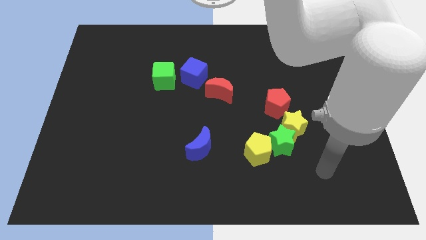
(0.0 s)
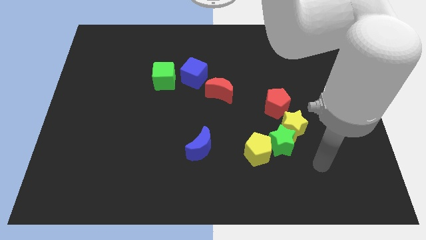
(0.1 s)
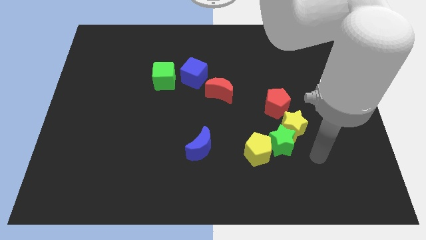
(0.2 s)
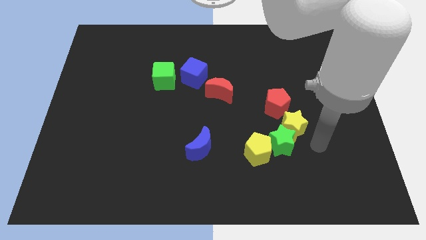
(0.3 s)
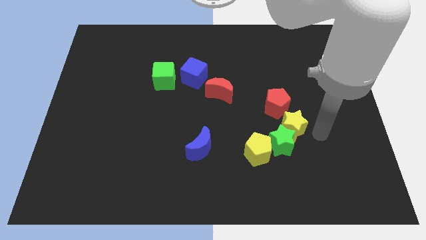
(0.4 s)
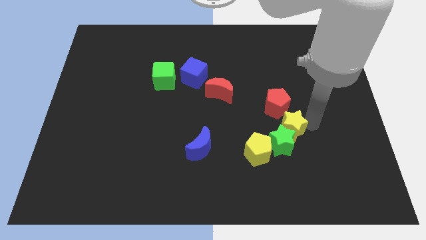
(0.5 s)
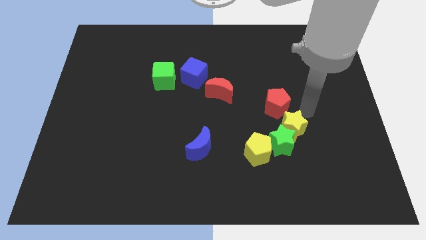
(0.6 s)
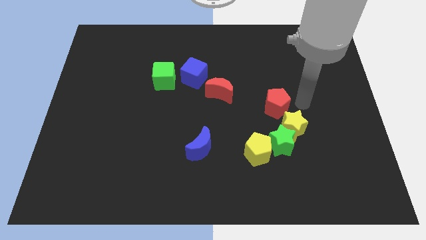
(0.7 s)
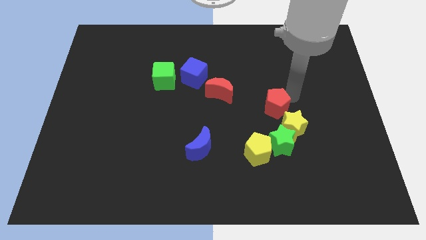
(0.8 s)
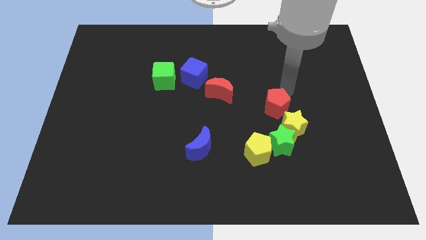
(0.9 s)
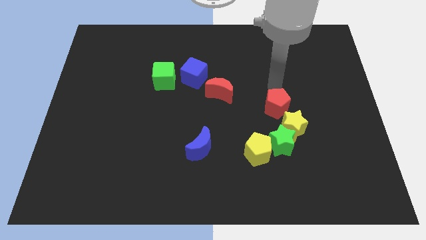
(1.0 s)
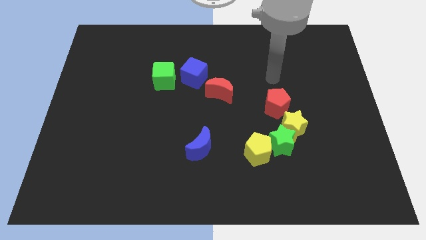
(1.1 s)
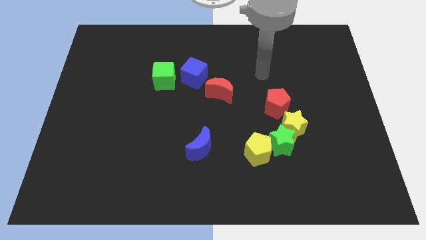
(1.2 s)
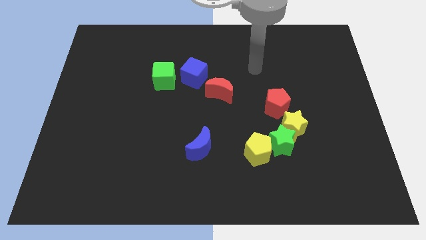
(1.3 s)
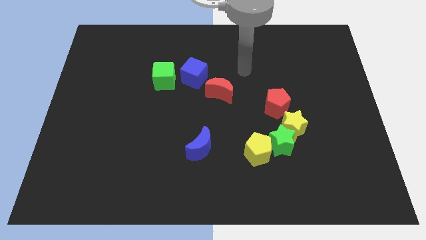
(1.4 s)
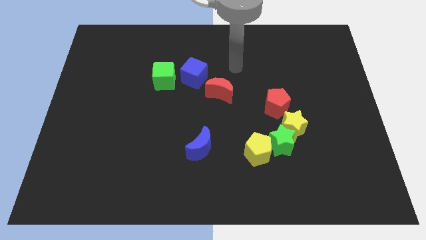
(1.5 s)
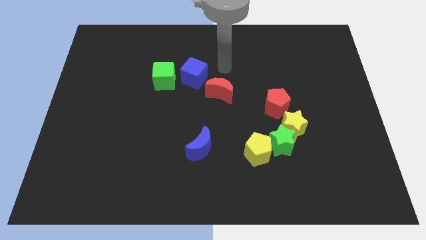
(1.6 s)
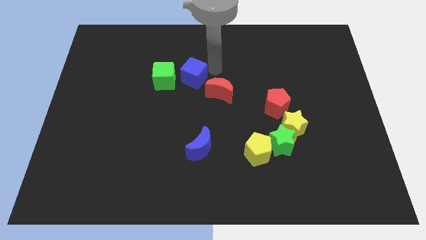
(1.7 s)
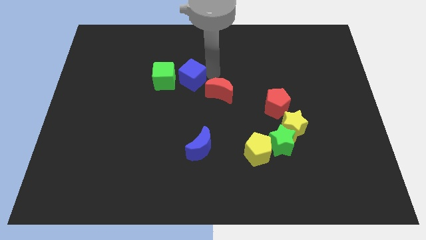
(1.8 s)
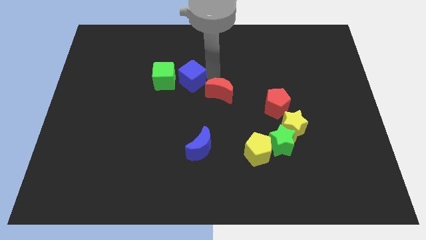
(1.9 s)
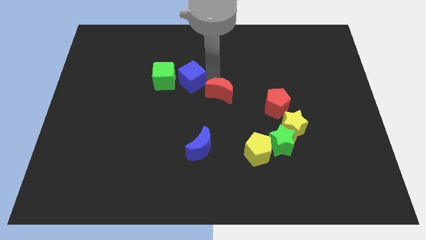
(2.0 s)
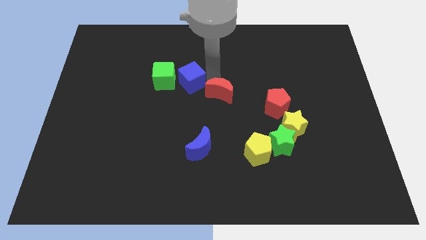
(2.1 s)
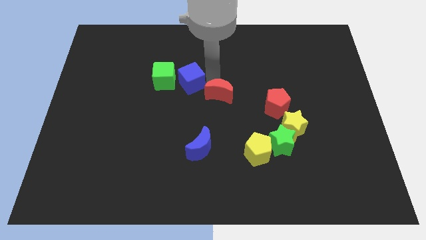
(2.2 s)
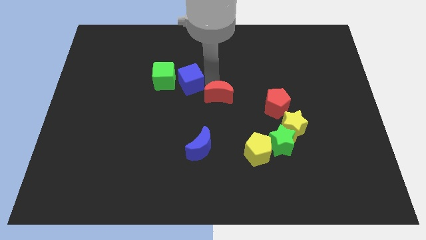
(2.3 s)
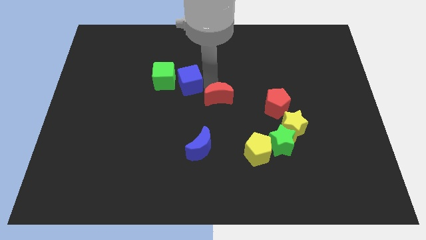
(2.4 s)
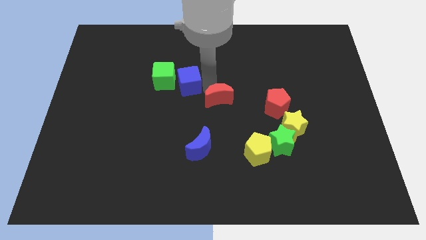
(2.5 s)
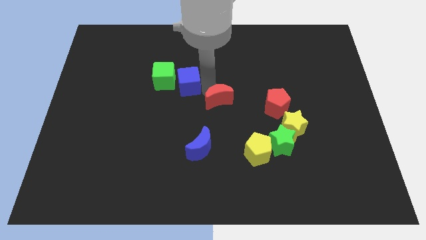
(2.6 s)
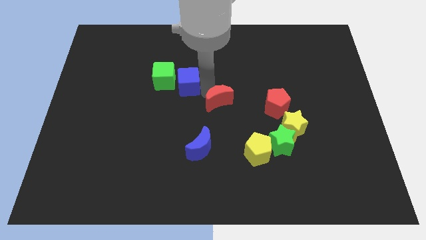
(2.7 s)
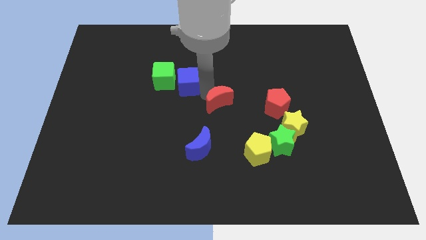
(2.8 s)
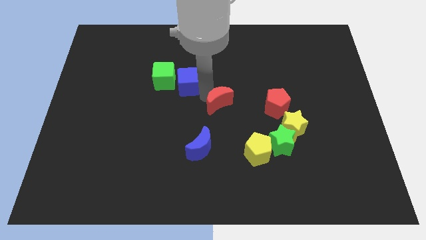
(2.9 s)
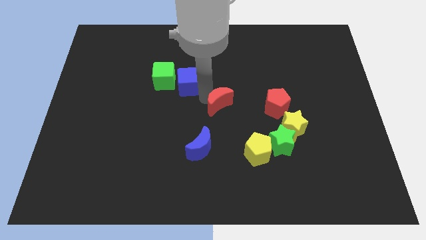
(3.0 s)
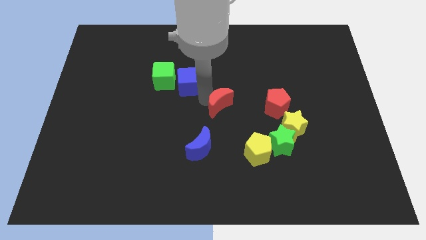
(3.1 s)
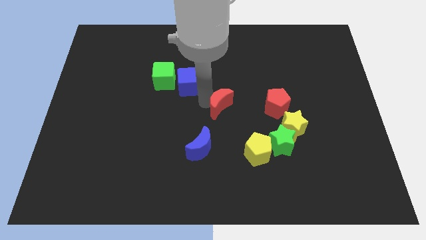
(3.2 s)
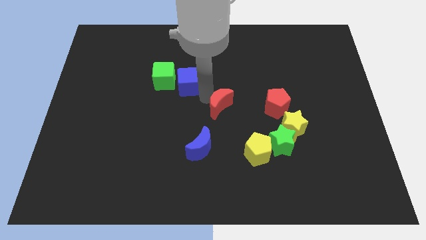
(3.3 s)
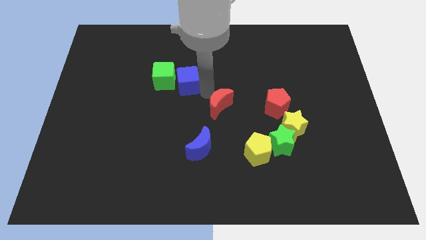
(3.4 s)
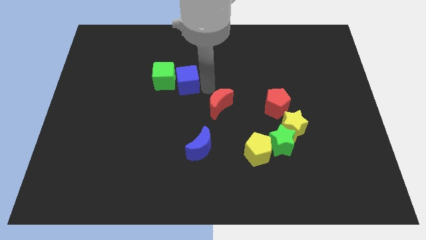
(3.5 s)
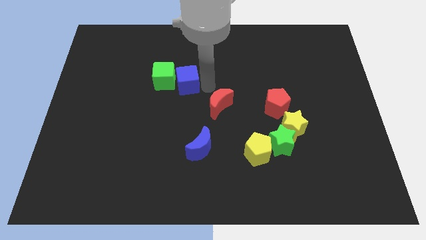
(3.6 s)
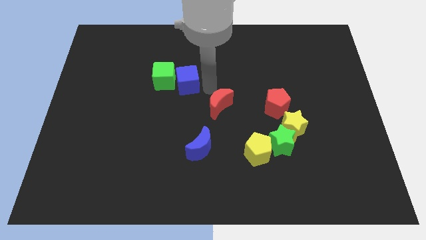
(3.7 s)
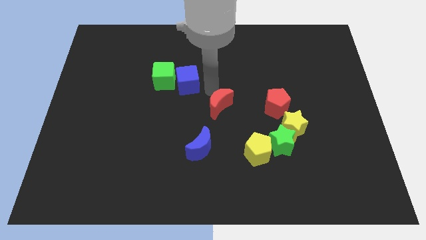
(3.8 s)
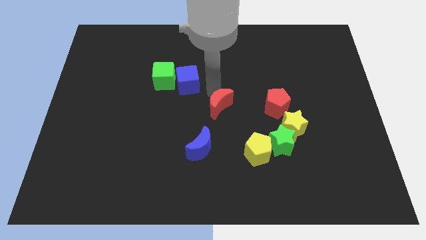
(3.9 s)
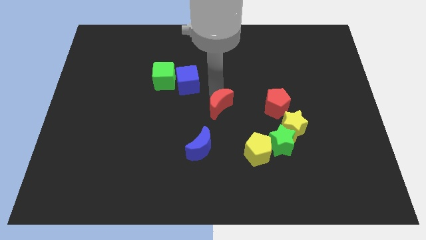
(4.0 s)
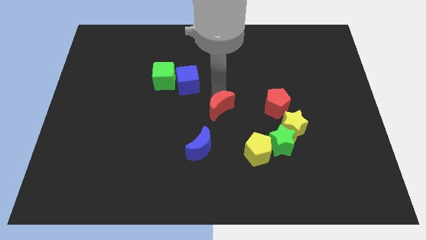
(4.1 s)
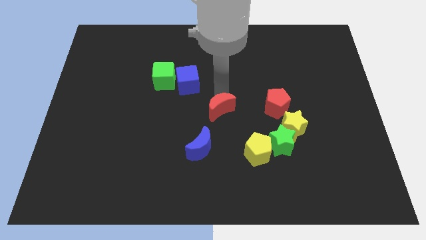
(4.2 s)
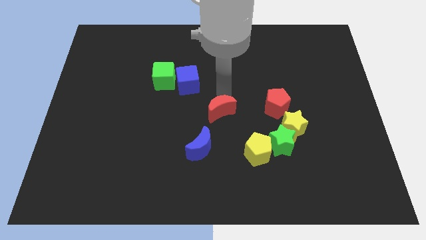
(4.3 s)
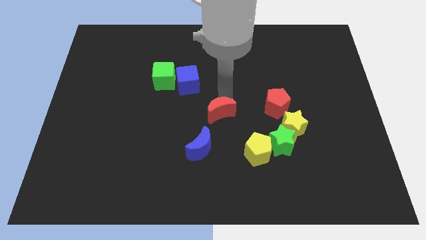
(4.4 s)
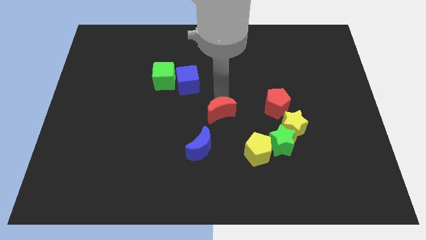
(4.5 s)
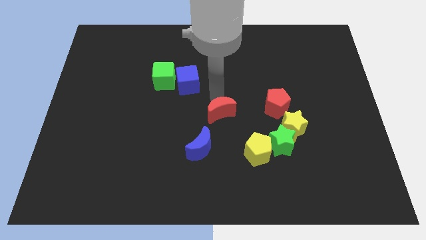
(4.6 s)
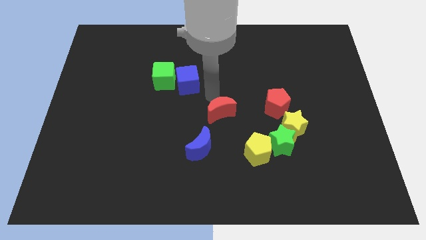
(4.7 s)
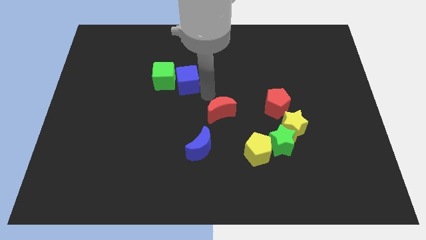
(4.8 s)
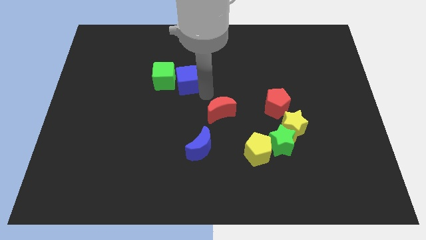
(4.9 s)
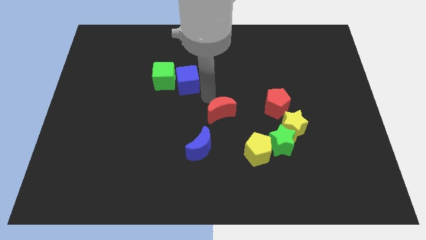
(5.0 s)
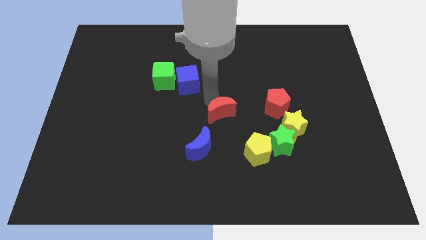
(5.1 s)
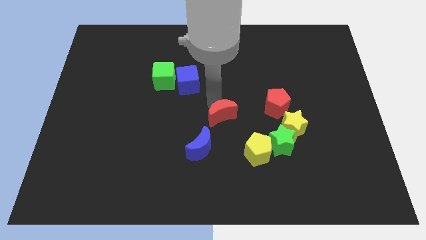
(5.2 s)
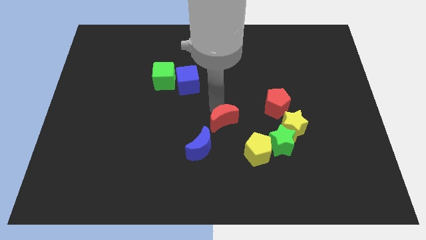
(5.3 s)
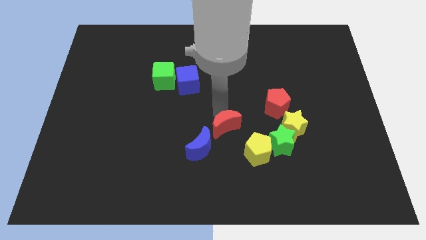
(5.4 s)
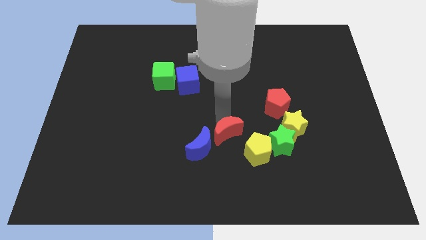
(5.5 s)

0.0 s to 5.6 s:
put the red moon left of the green star

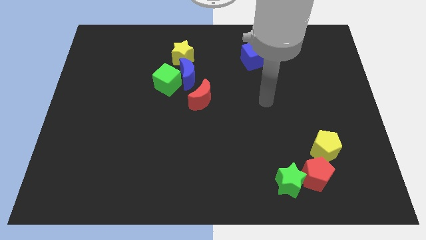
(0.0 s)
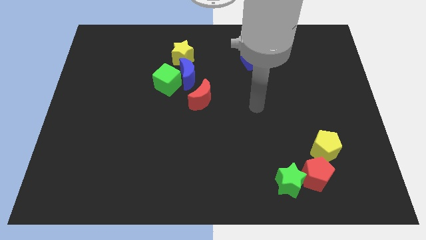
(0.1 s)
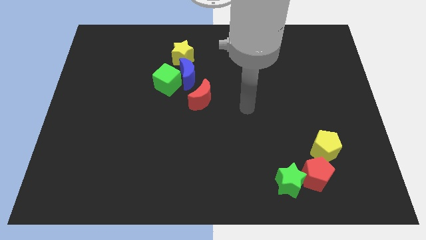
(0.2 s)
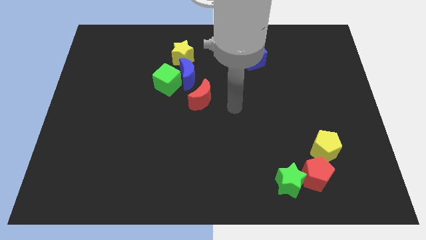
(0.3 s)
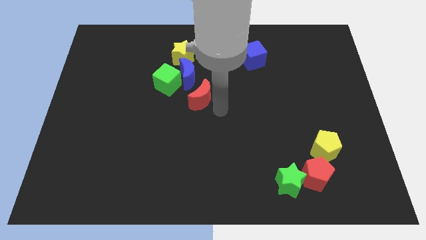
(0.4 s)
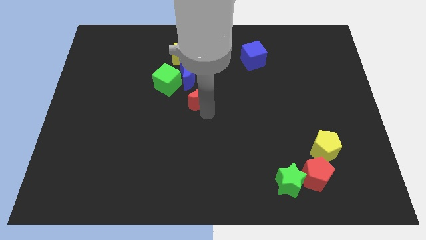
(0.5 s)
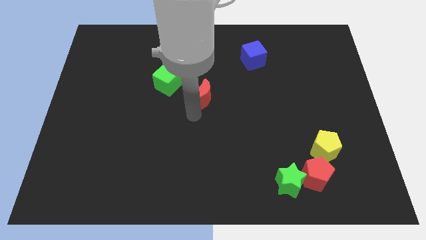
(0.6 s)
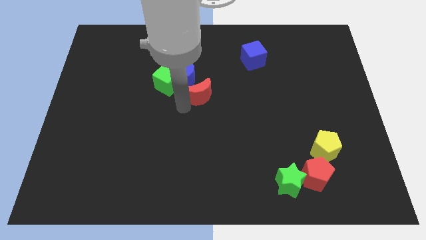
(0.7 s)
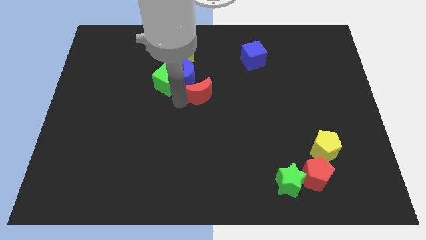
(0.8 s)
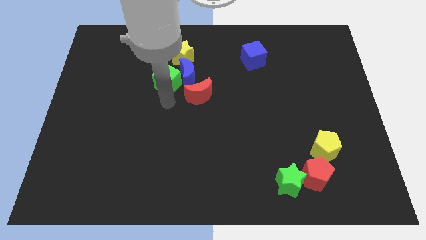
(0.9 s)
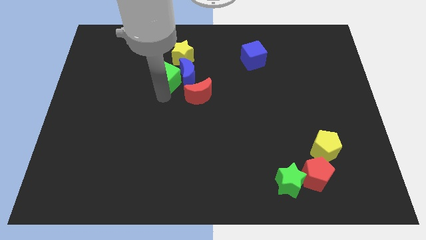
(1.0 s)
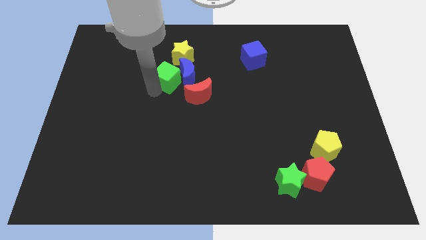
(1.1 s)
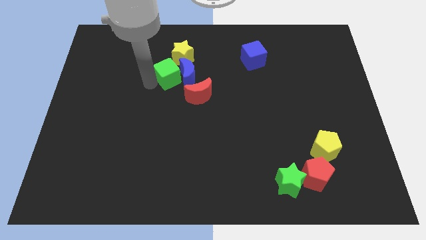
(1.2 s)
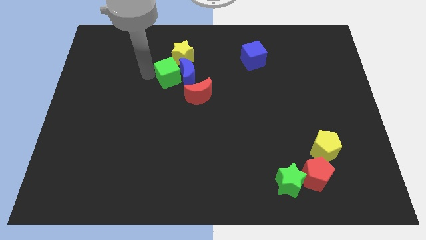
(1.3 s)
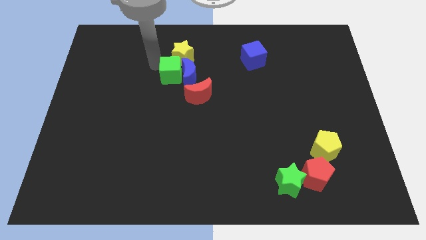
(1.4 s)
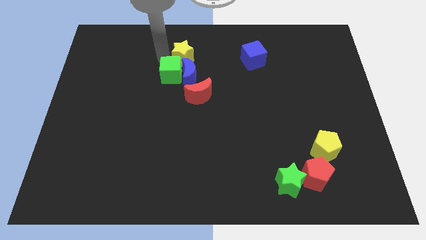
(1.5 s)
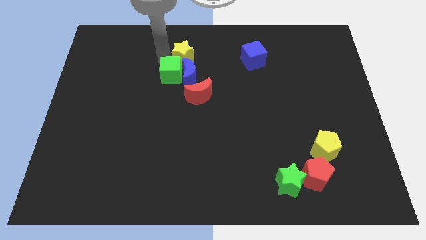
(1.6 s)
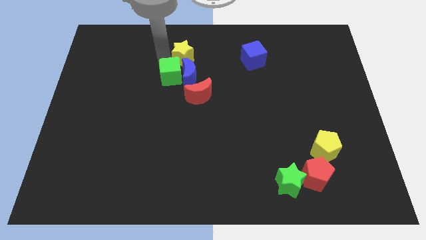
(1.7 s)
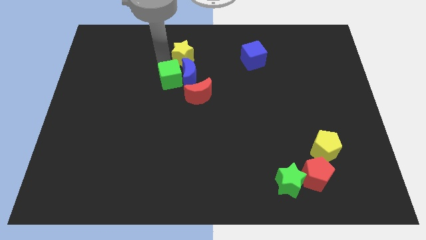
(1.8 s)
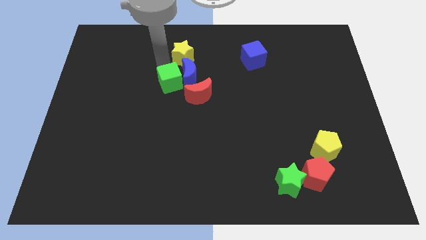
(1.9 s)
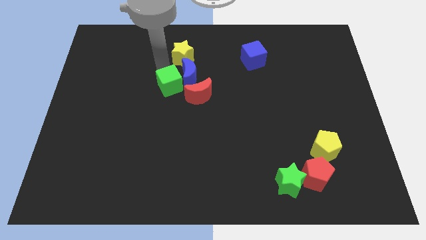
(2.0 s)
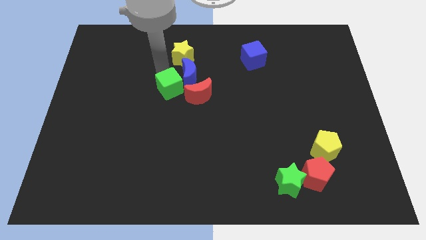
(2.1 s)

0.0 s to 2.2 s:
slide the green cube to the bottom side of the blue moon
